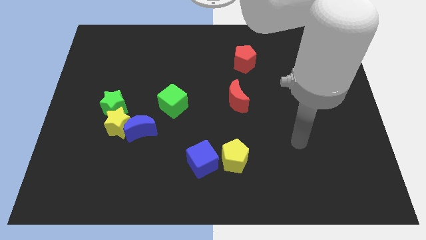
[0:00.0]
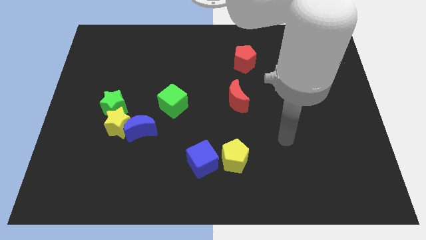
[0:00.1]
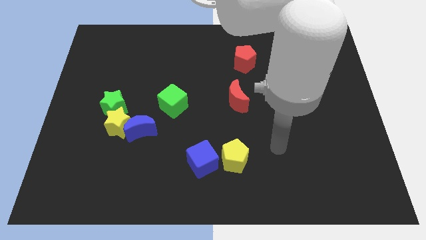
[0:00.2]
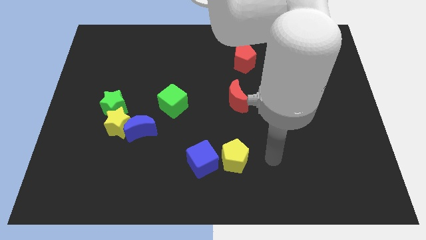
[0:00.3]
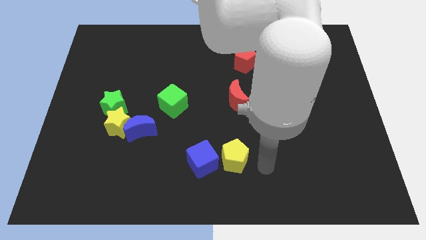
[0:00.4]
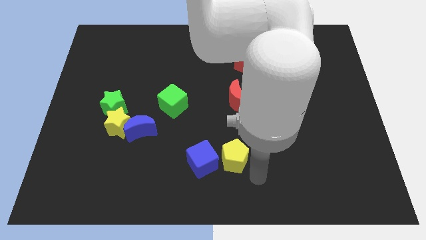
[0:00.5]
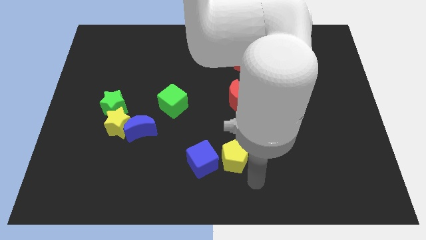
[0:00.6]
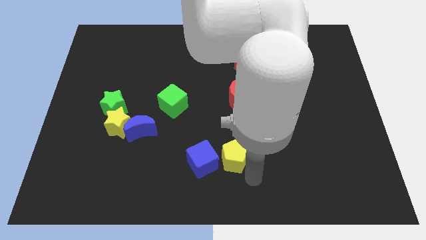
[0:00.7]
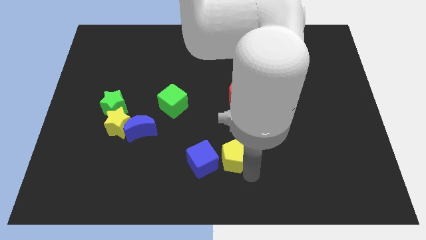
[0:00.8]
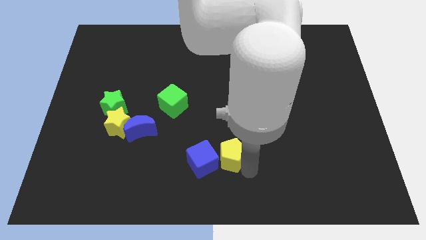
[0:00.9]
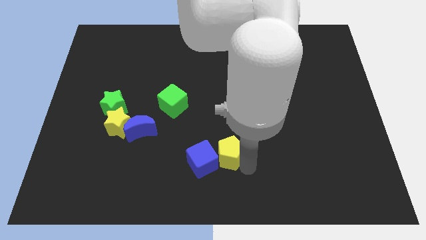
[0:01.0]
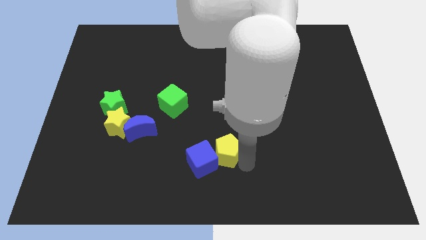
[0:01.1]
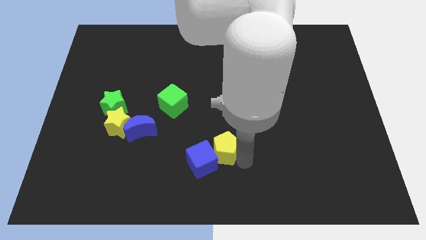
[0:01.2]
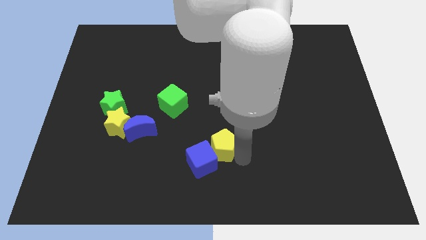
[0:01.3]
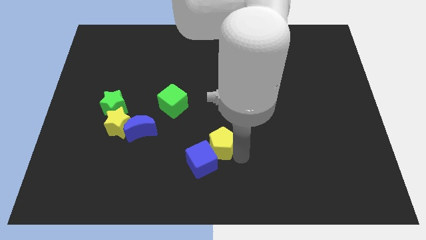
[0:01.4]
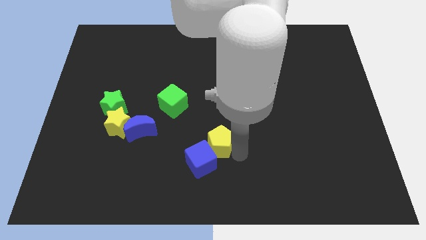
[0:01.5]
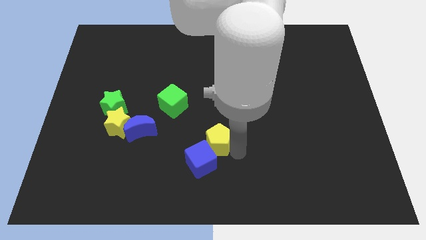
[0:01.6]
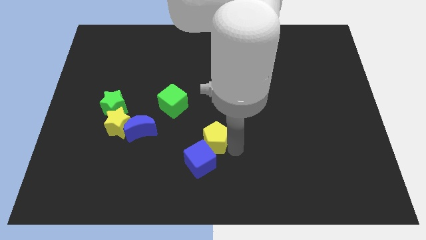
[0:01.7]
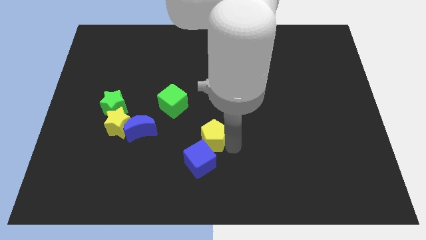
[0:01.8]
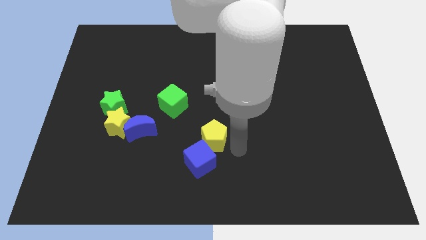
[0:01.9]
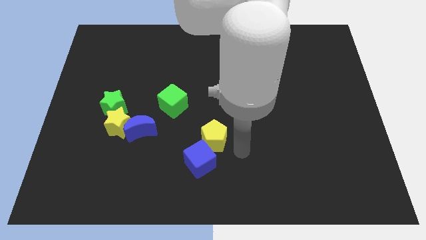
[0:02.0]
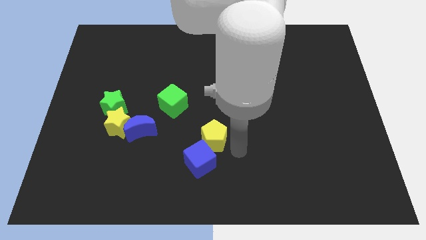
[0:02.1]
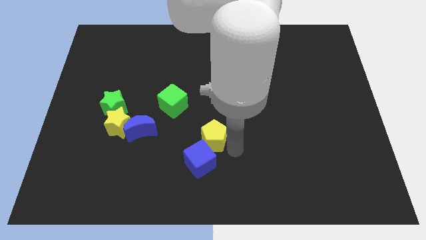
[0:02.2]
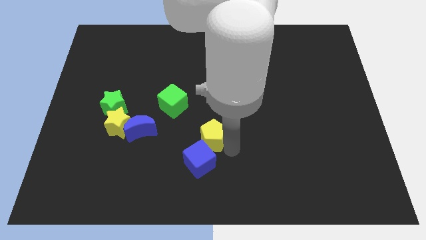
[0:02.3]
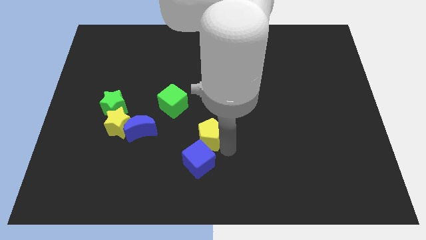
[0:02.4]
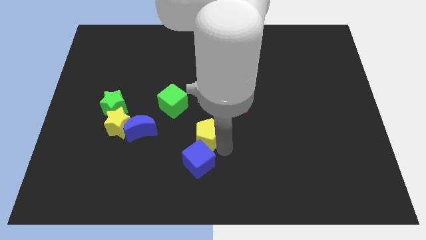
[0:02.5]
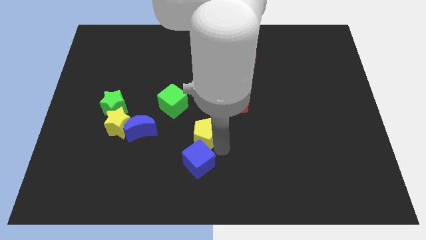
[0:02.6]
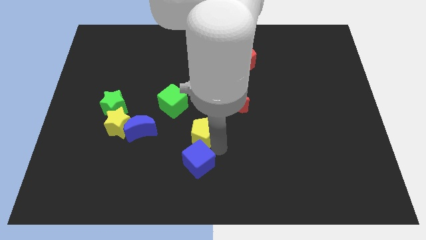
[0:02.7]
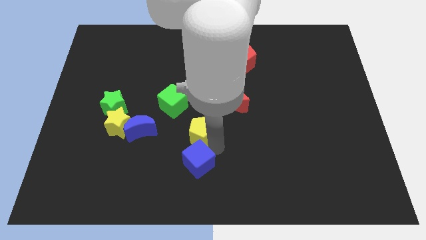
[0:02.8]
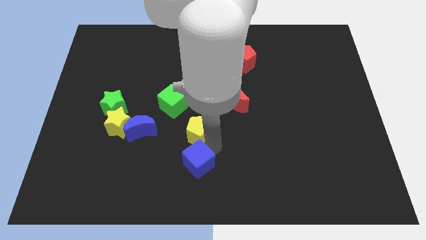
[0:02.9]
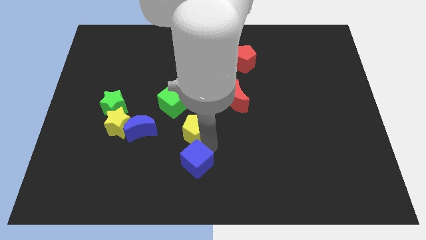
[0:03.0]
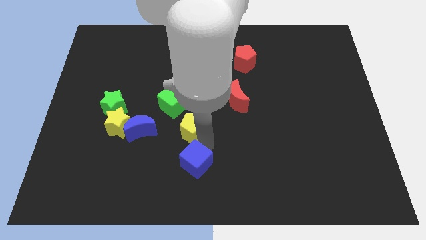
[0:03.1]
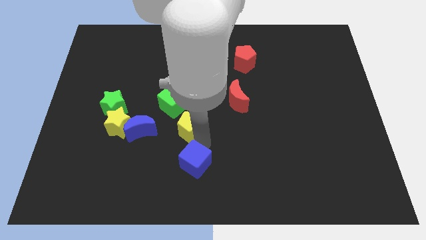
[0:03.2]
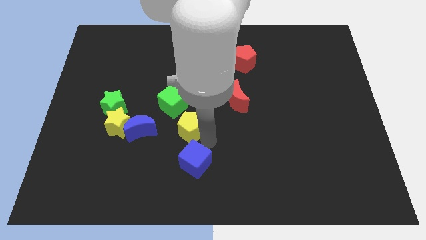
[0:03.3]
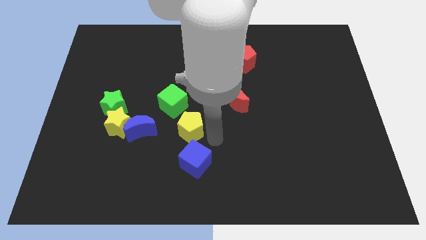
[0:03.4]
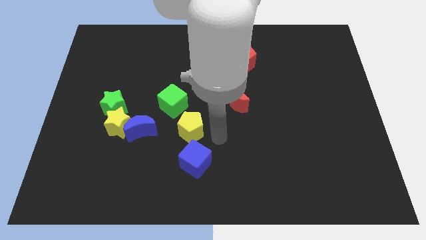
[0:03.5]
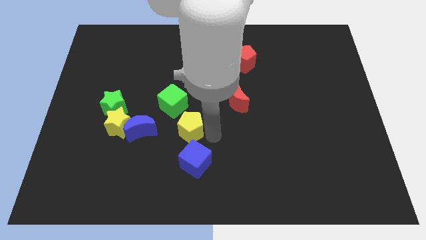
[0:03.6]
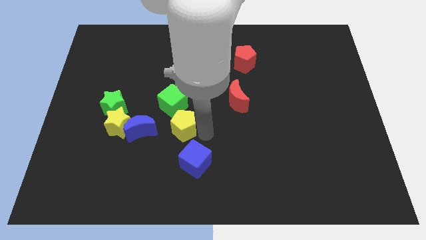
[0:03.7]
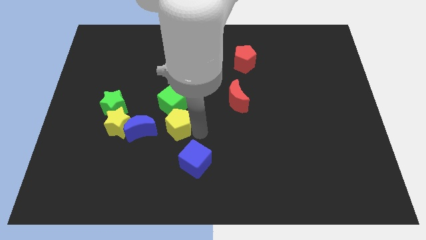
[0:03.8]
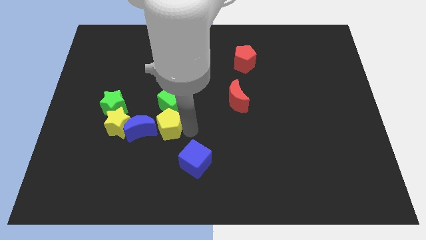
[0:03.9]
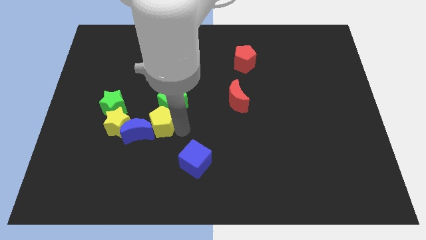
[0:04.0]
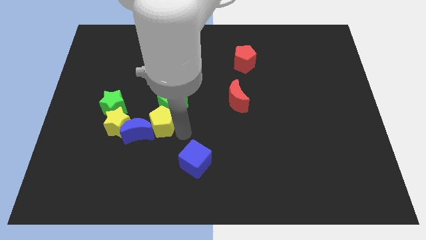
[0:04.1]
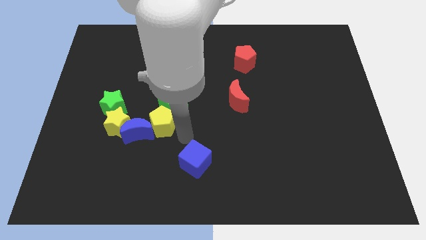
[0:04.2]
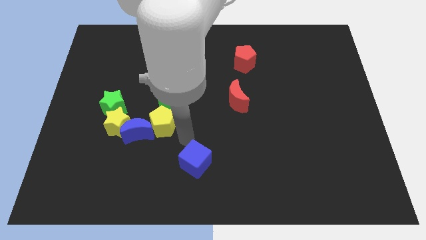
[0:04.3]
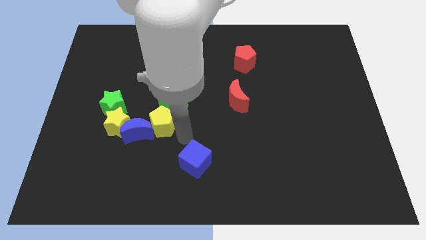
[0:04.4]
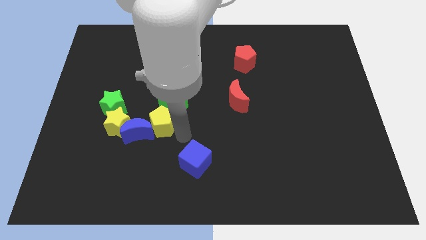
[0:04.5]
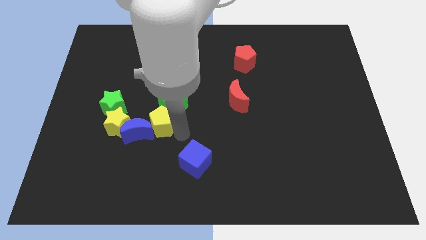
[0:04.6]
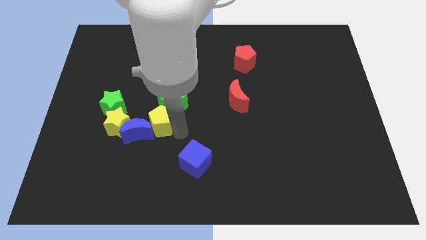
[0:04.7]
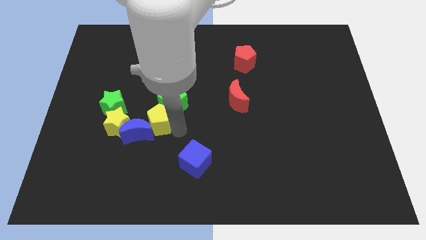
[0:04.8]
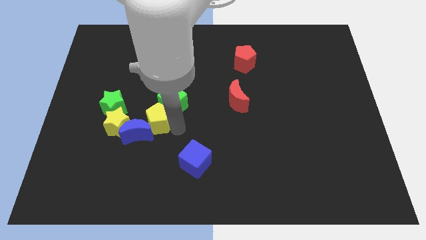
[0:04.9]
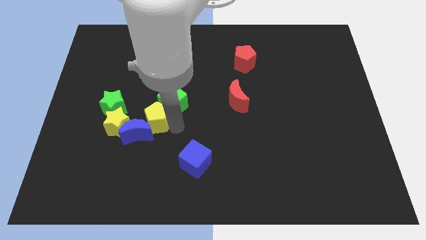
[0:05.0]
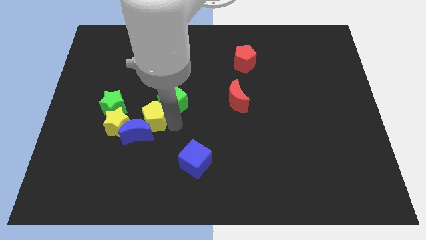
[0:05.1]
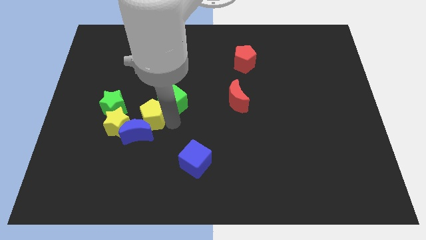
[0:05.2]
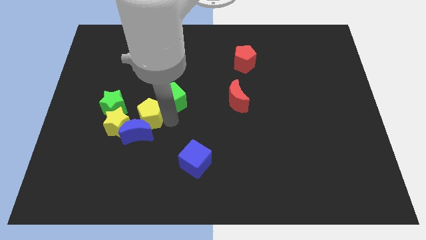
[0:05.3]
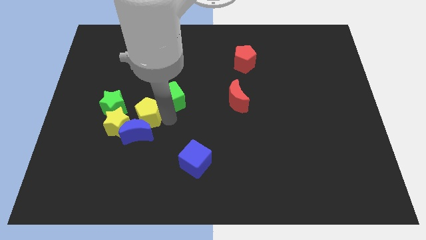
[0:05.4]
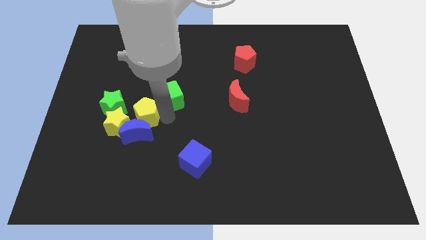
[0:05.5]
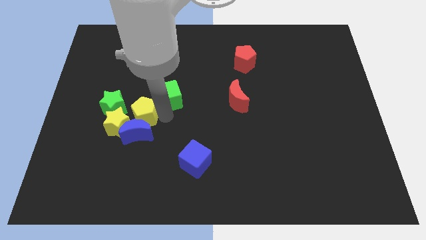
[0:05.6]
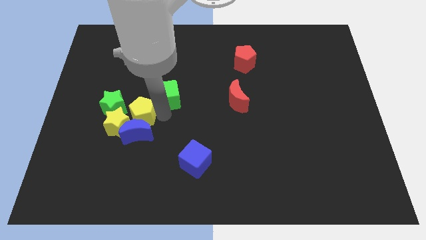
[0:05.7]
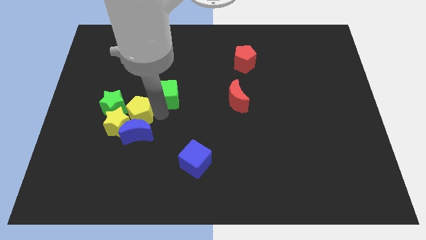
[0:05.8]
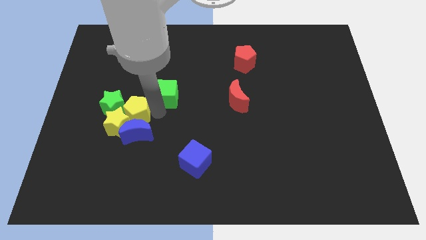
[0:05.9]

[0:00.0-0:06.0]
push the yellow pentagon close to the green star

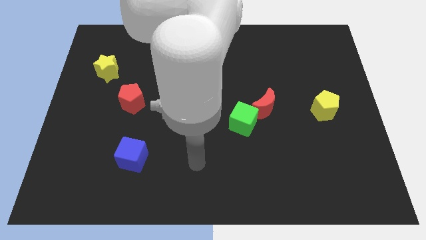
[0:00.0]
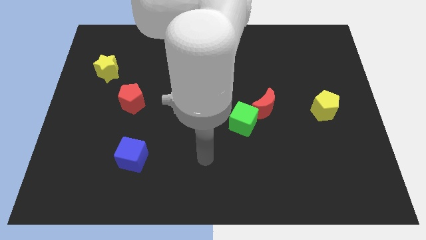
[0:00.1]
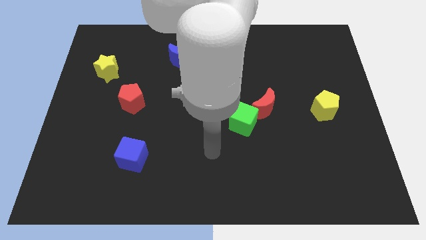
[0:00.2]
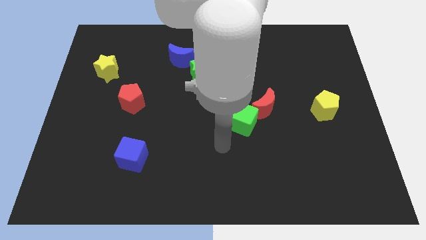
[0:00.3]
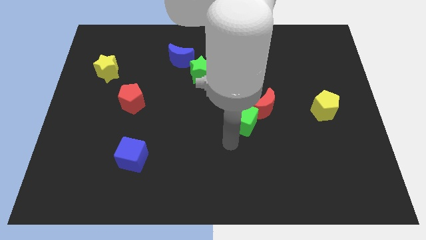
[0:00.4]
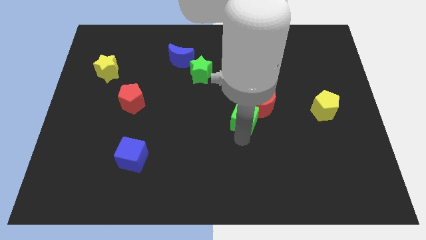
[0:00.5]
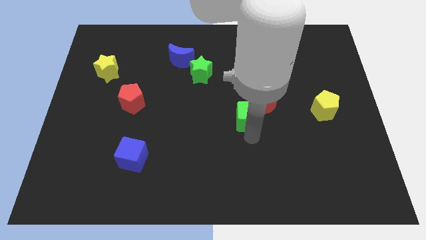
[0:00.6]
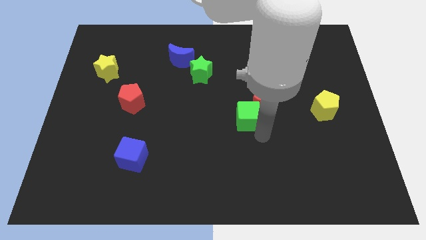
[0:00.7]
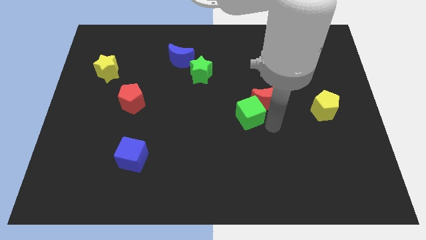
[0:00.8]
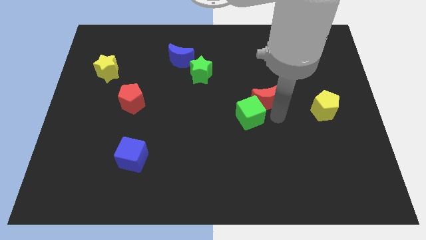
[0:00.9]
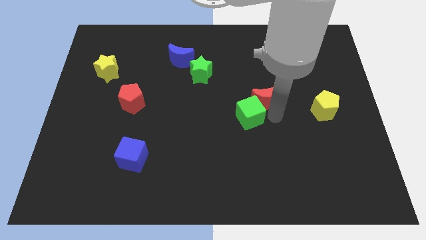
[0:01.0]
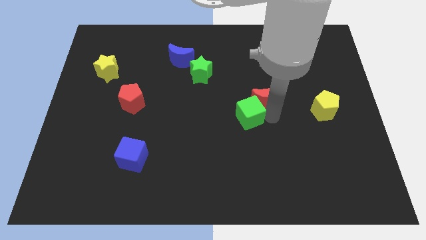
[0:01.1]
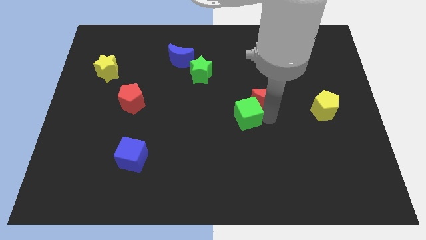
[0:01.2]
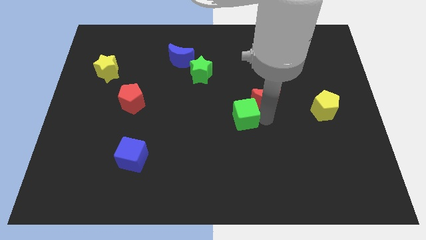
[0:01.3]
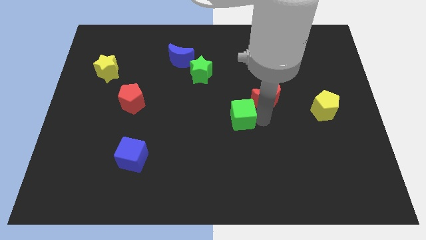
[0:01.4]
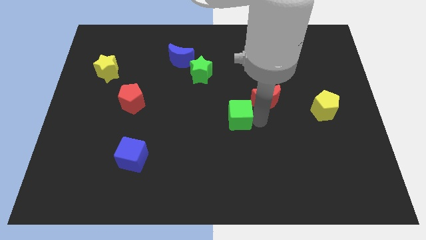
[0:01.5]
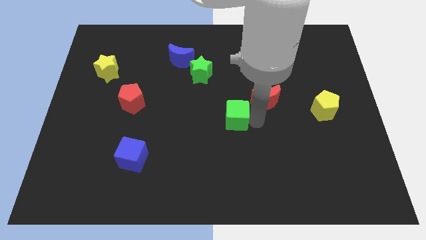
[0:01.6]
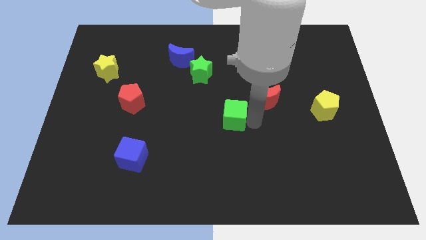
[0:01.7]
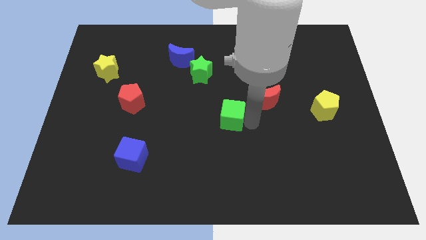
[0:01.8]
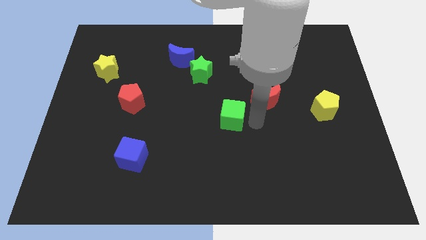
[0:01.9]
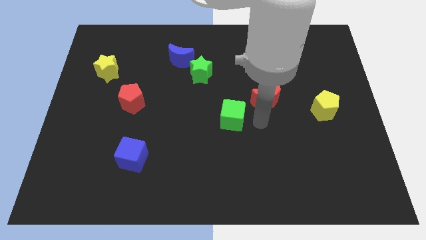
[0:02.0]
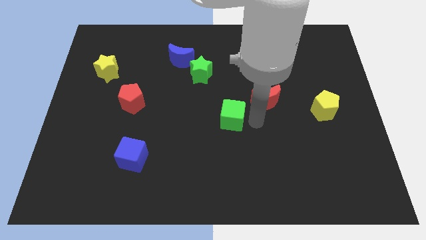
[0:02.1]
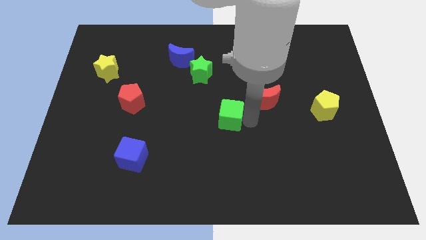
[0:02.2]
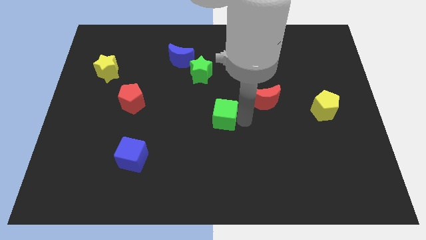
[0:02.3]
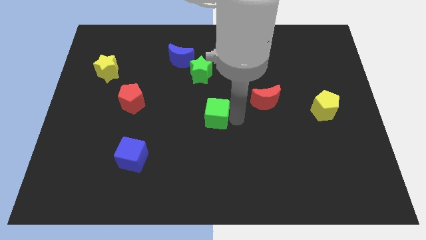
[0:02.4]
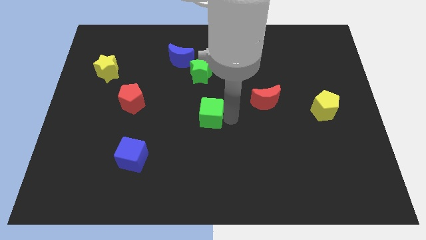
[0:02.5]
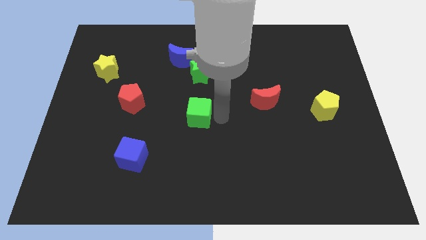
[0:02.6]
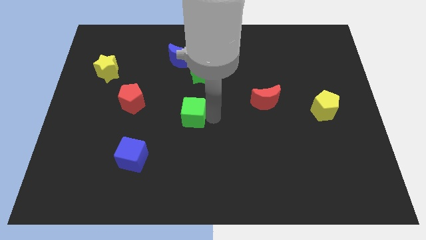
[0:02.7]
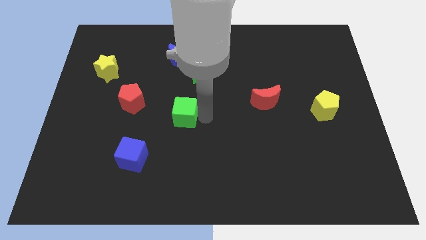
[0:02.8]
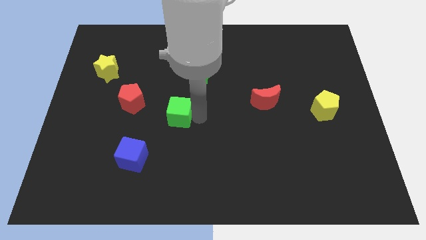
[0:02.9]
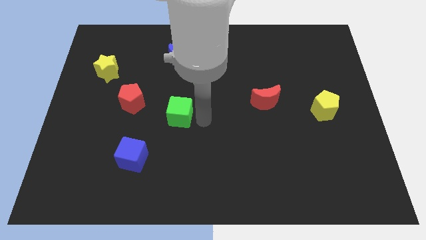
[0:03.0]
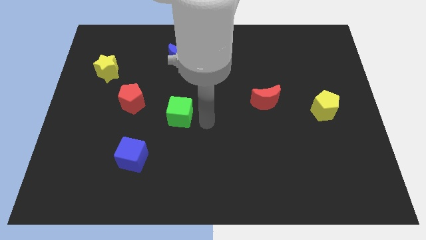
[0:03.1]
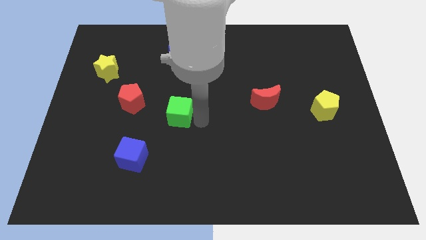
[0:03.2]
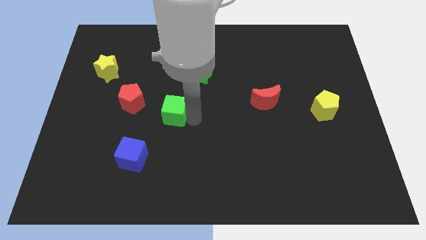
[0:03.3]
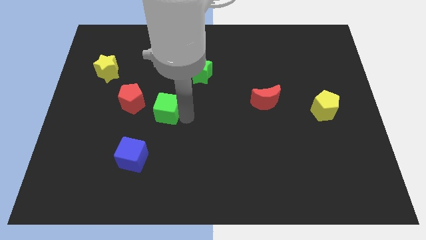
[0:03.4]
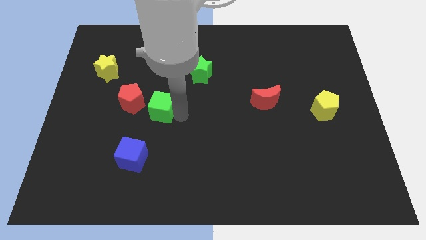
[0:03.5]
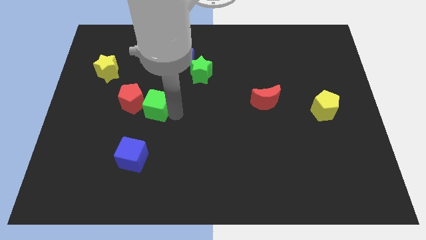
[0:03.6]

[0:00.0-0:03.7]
slide the green cube to the red pentagon
